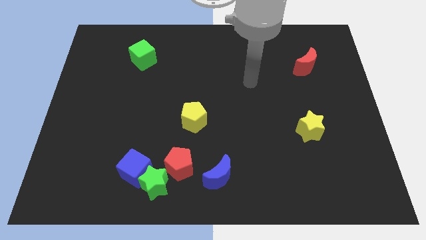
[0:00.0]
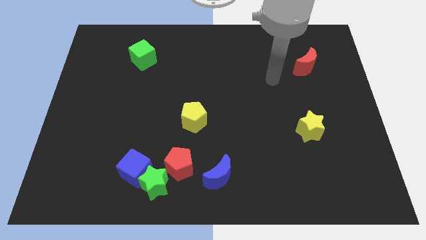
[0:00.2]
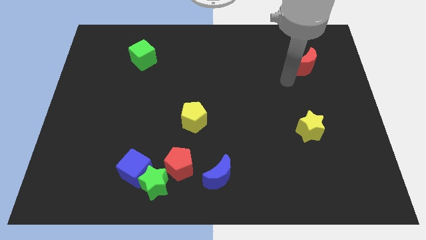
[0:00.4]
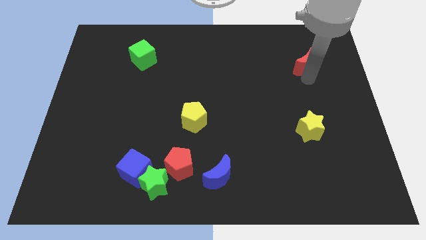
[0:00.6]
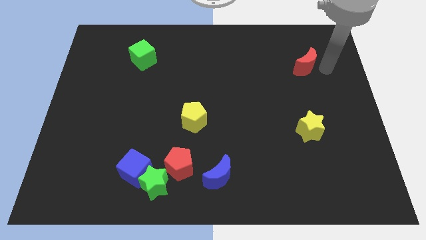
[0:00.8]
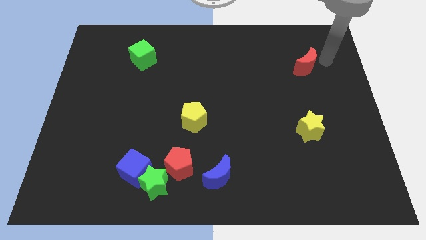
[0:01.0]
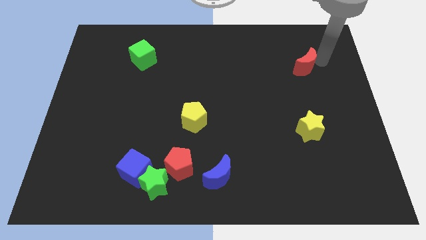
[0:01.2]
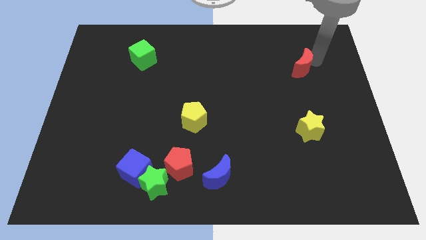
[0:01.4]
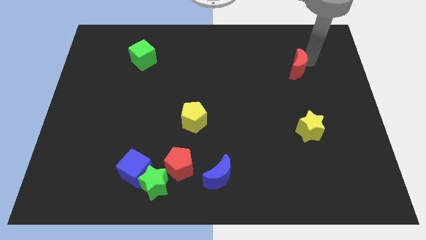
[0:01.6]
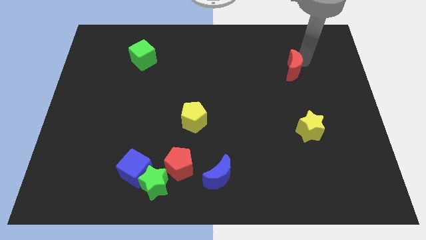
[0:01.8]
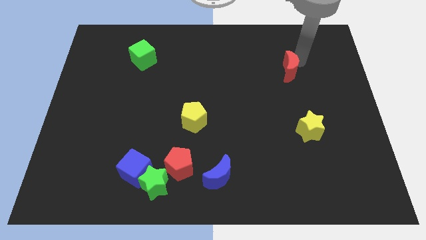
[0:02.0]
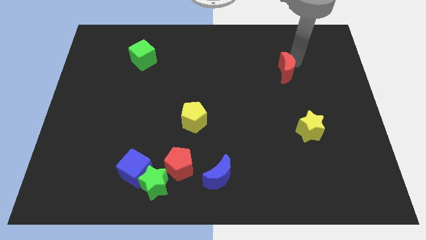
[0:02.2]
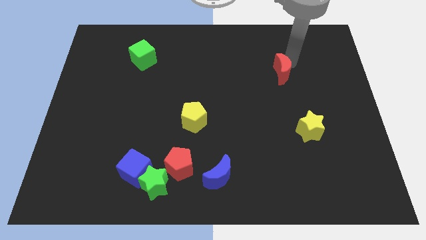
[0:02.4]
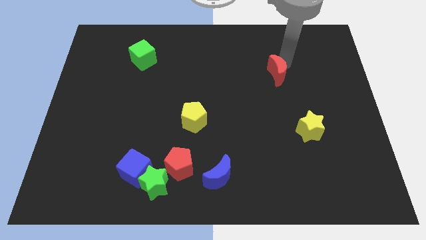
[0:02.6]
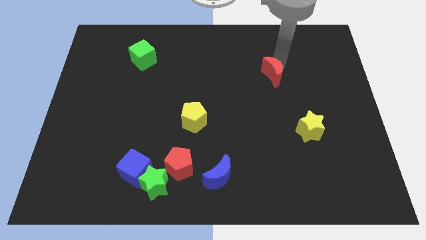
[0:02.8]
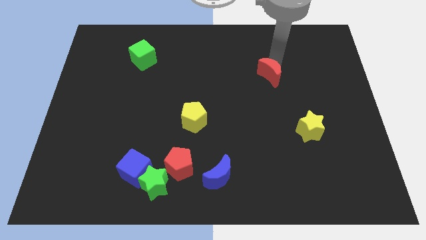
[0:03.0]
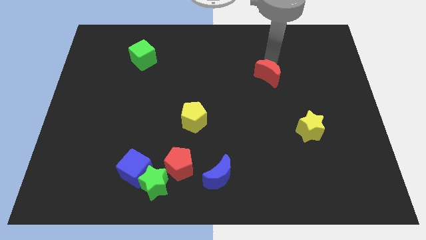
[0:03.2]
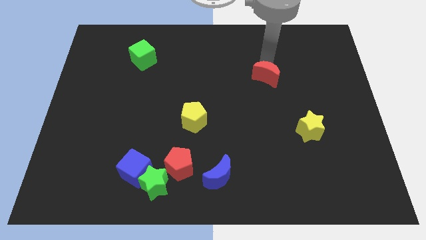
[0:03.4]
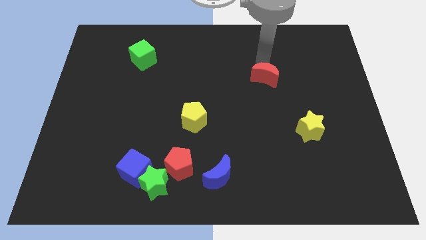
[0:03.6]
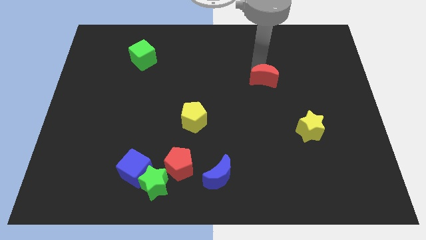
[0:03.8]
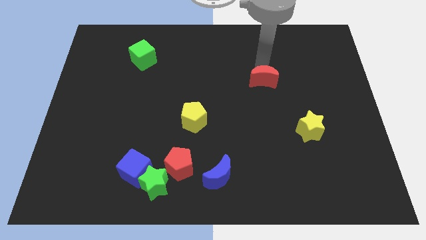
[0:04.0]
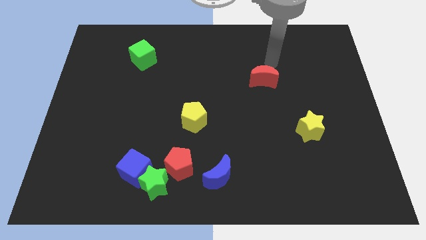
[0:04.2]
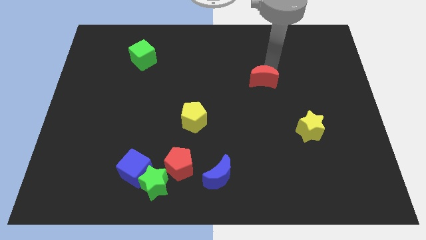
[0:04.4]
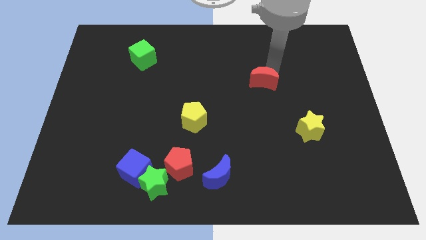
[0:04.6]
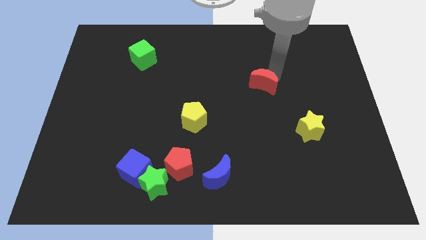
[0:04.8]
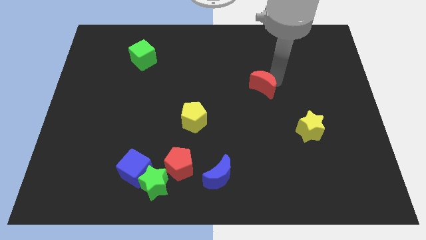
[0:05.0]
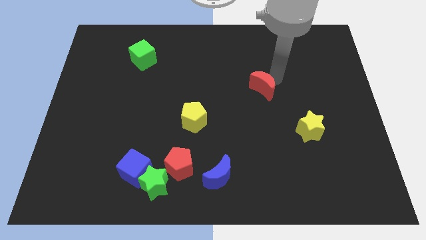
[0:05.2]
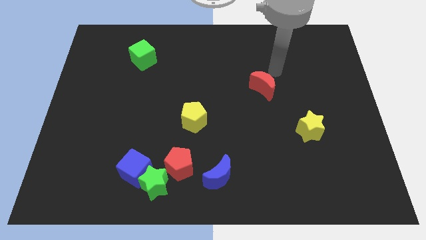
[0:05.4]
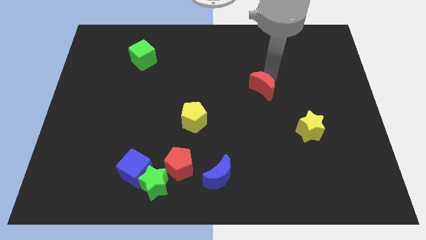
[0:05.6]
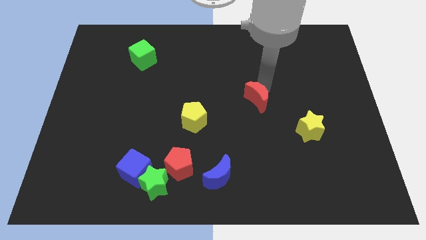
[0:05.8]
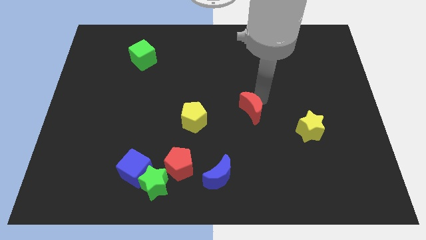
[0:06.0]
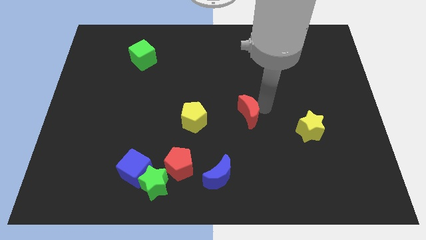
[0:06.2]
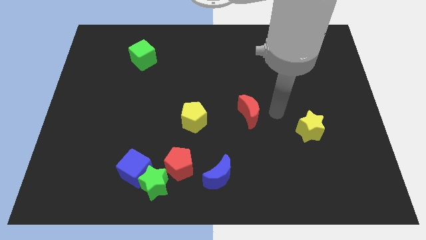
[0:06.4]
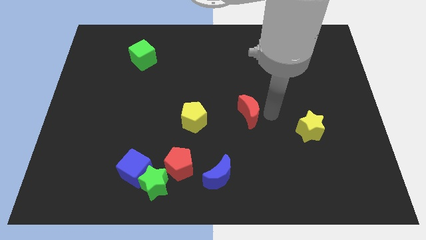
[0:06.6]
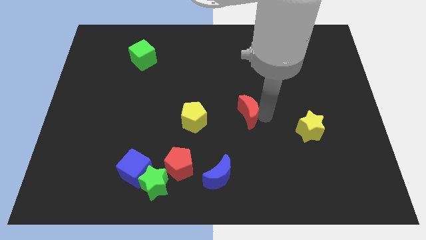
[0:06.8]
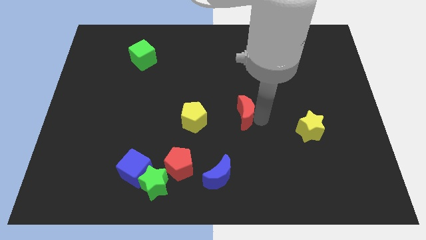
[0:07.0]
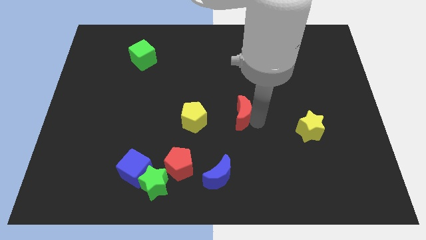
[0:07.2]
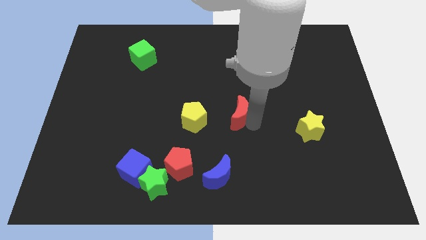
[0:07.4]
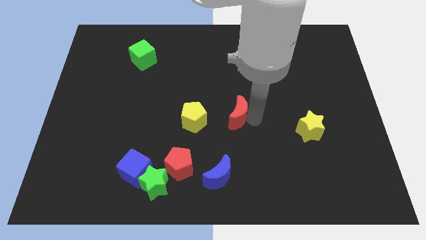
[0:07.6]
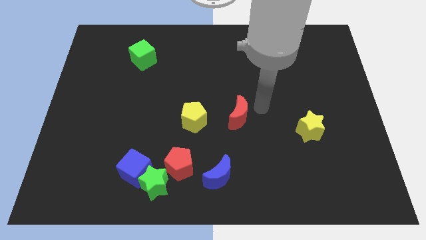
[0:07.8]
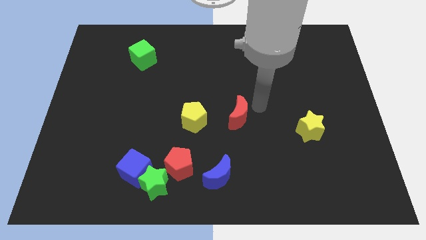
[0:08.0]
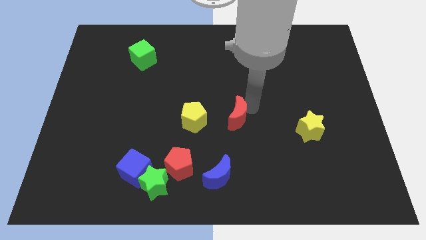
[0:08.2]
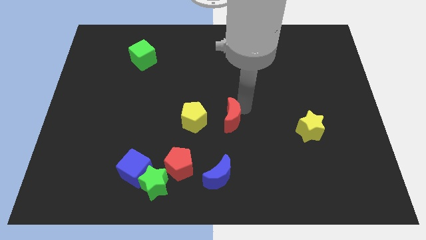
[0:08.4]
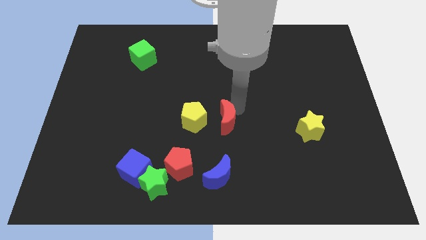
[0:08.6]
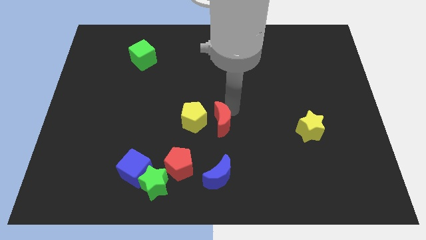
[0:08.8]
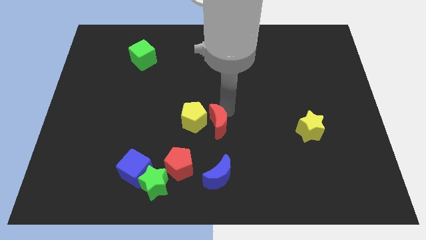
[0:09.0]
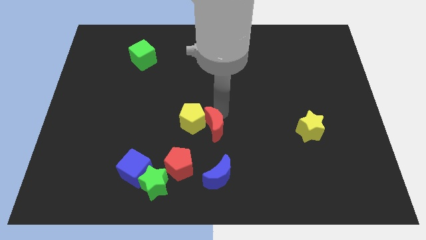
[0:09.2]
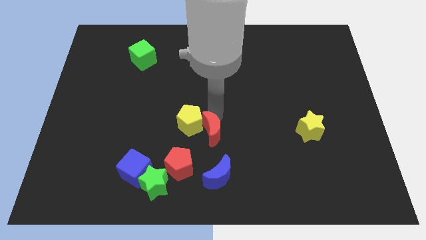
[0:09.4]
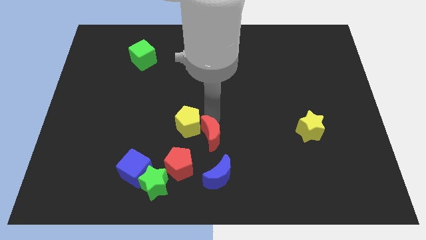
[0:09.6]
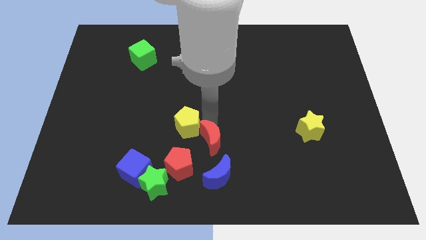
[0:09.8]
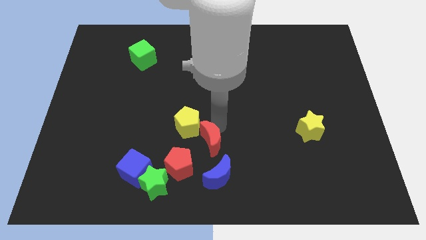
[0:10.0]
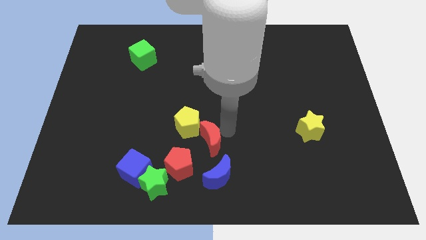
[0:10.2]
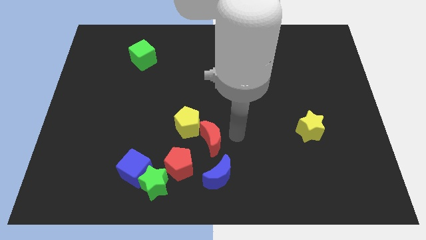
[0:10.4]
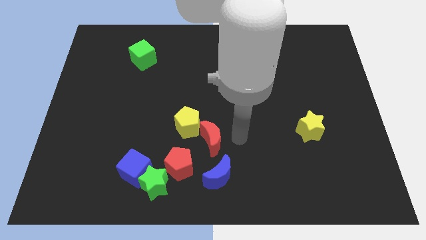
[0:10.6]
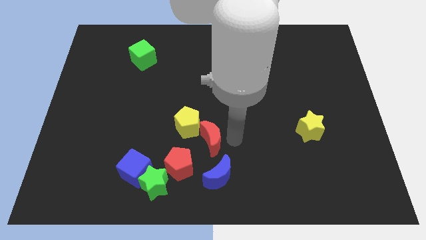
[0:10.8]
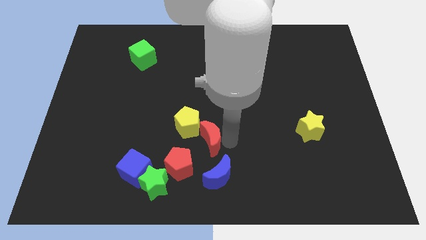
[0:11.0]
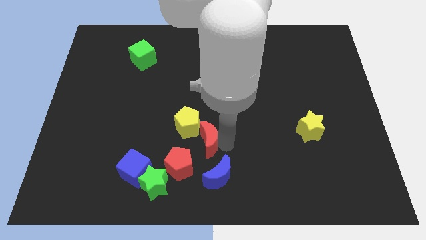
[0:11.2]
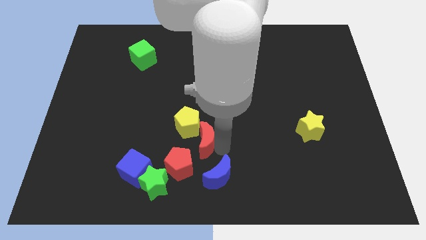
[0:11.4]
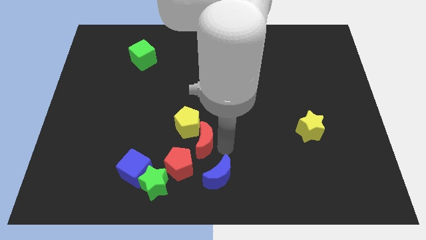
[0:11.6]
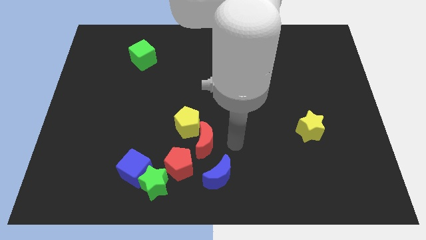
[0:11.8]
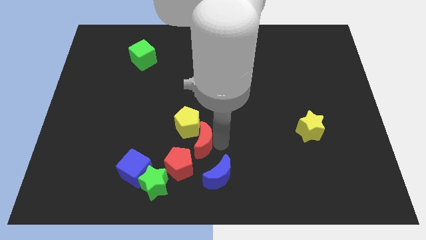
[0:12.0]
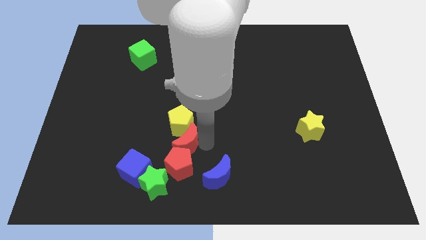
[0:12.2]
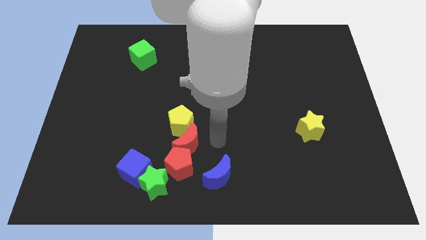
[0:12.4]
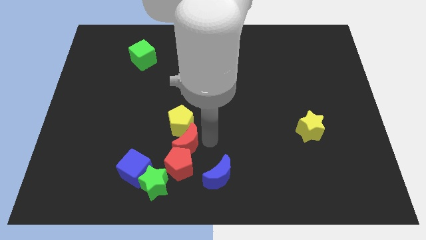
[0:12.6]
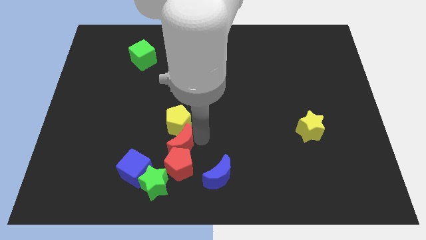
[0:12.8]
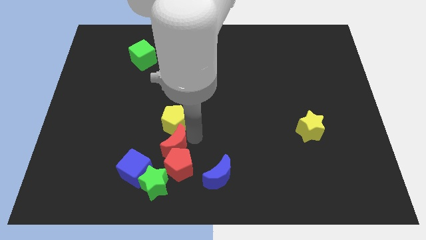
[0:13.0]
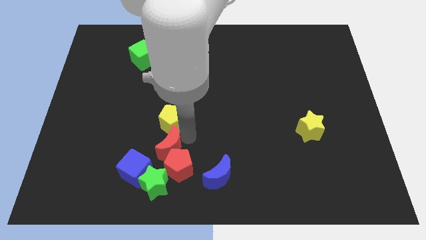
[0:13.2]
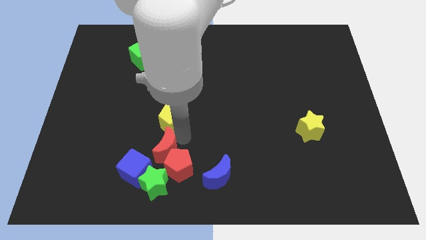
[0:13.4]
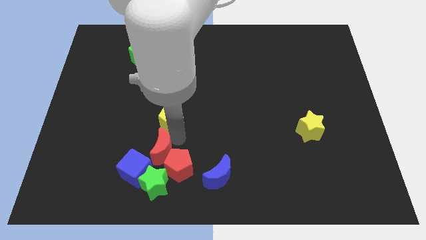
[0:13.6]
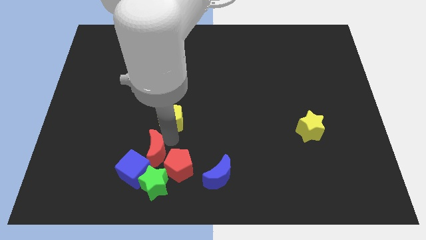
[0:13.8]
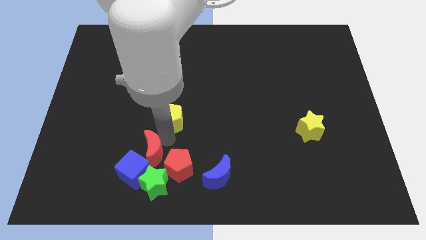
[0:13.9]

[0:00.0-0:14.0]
push the red moon close to the blue cube
